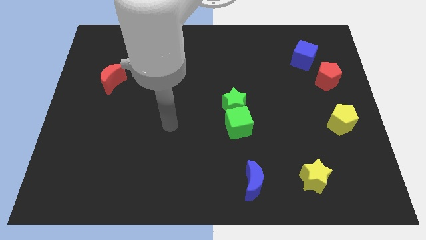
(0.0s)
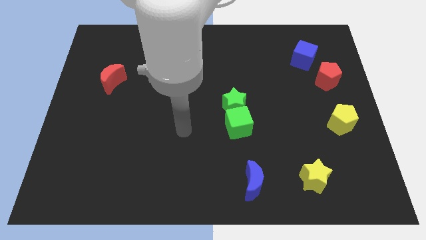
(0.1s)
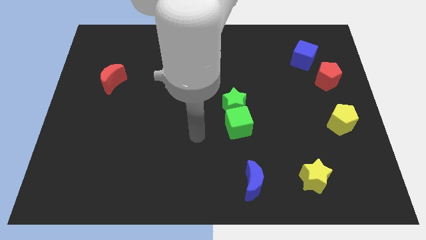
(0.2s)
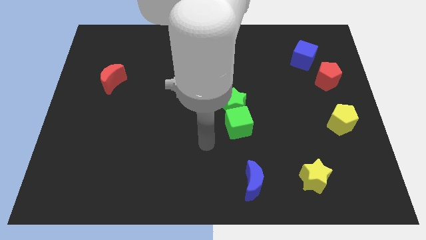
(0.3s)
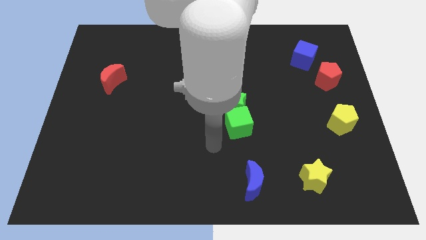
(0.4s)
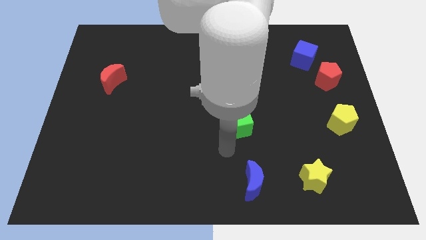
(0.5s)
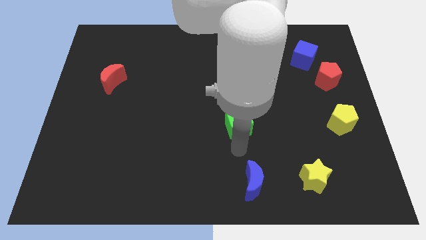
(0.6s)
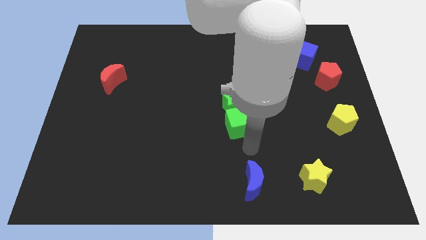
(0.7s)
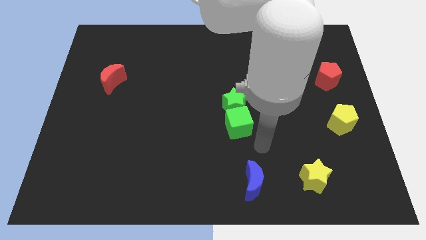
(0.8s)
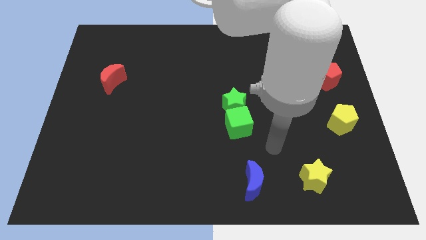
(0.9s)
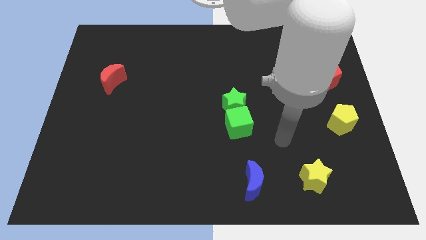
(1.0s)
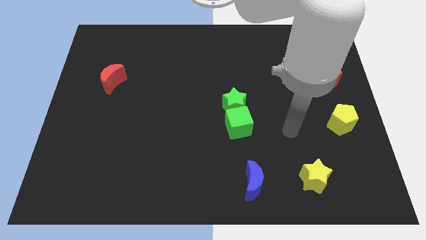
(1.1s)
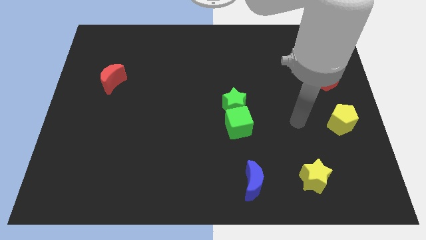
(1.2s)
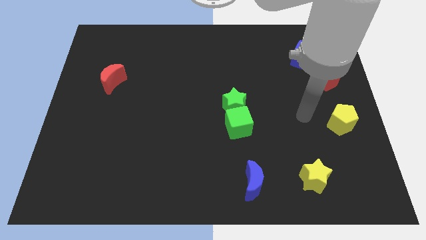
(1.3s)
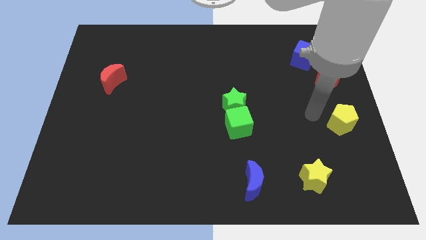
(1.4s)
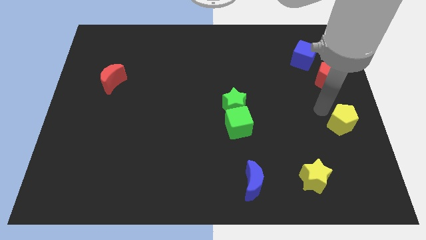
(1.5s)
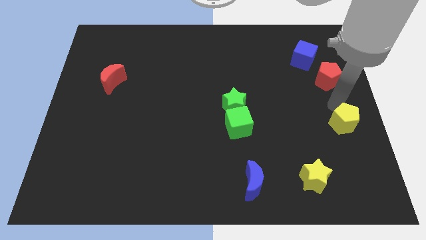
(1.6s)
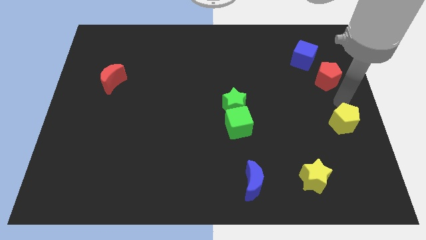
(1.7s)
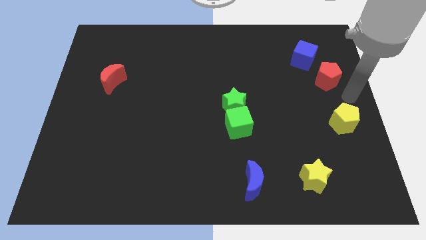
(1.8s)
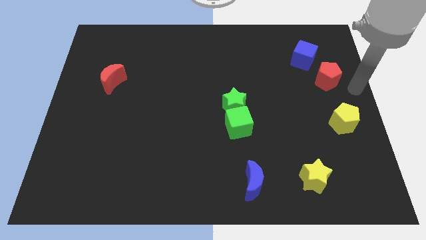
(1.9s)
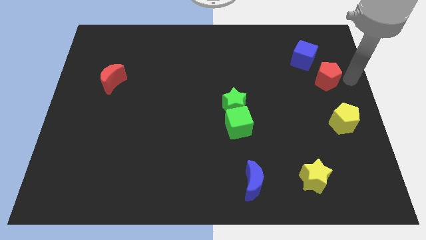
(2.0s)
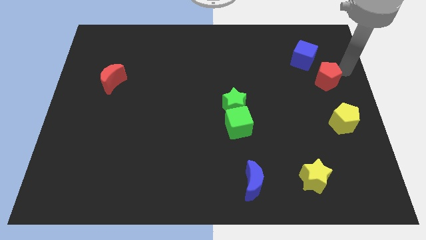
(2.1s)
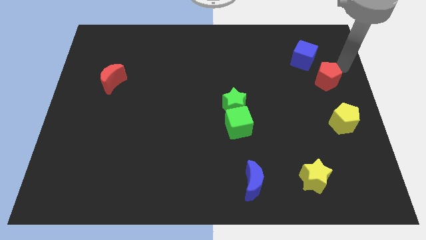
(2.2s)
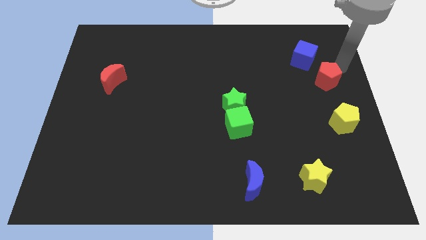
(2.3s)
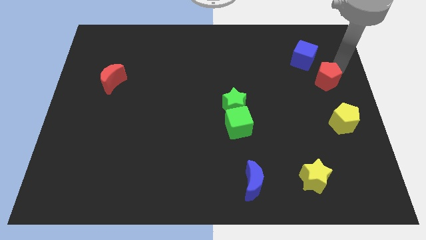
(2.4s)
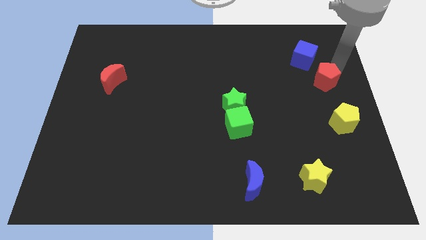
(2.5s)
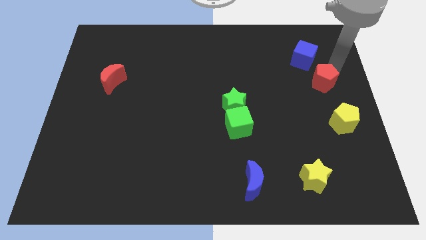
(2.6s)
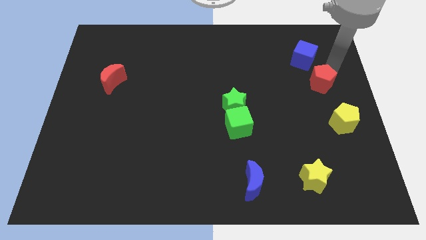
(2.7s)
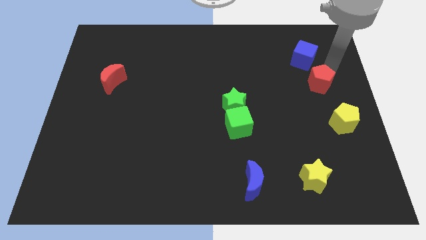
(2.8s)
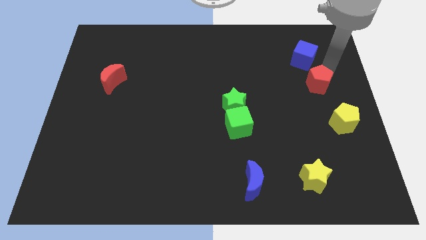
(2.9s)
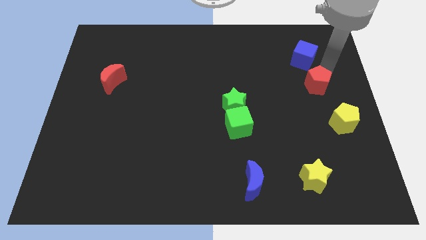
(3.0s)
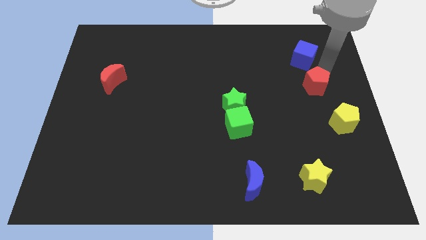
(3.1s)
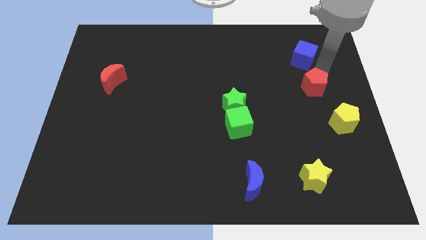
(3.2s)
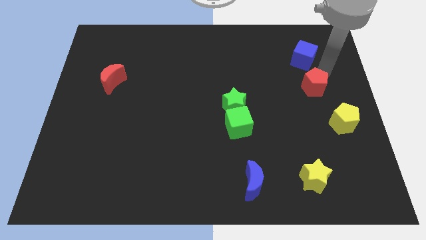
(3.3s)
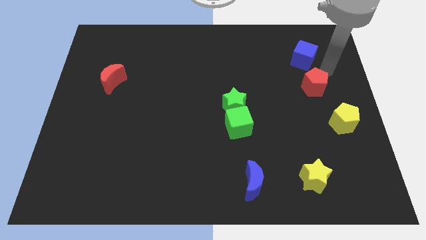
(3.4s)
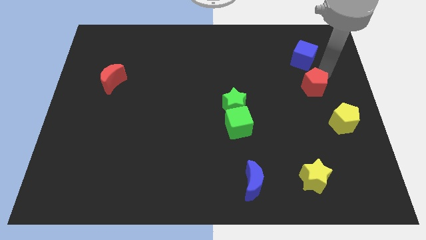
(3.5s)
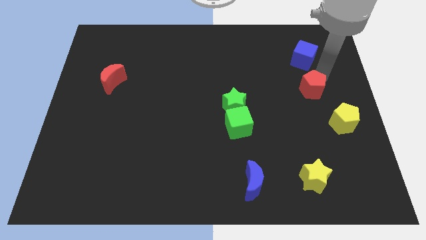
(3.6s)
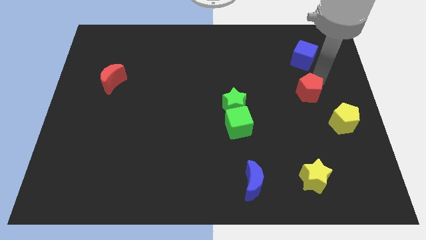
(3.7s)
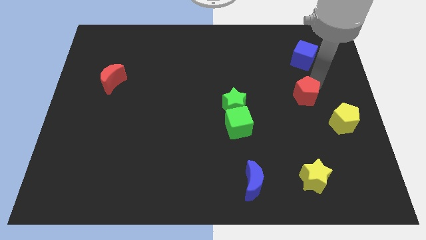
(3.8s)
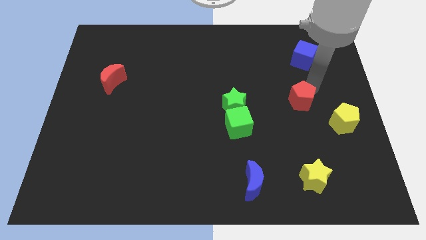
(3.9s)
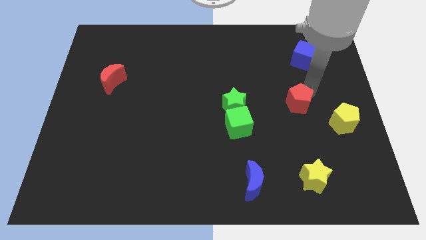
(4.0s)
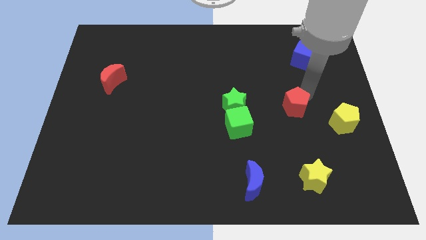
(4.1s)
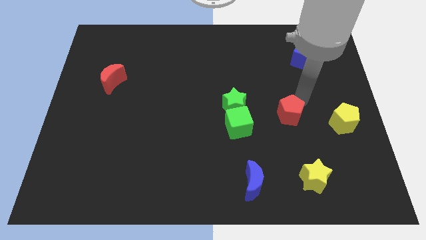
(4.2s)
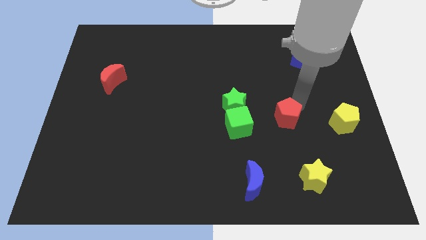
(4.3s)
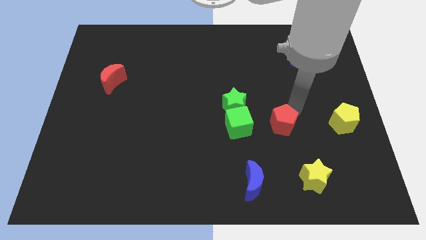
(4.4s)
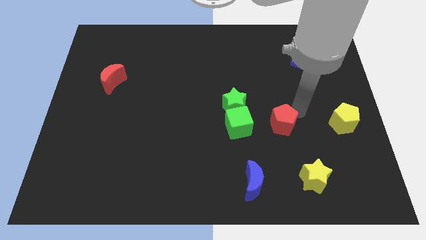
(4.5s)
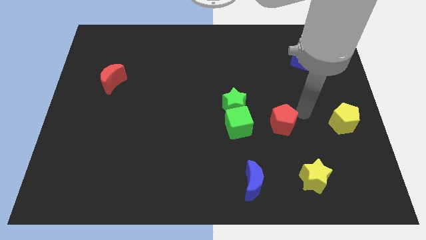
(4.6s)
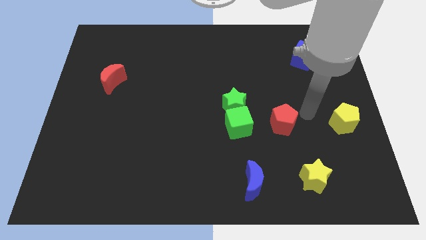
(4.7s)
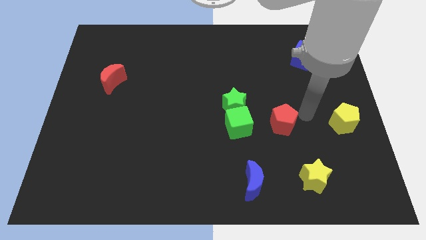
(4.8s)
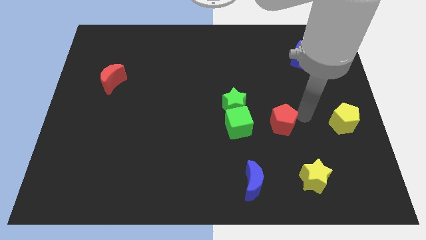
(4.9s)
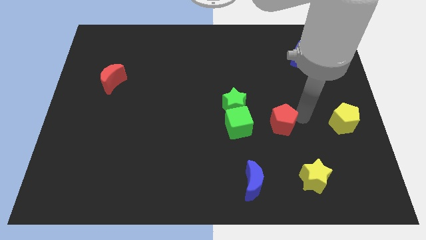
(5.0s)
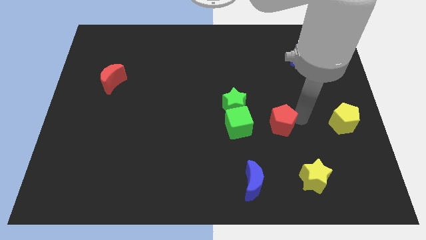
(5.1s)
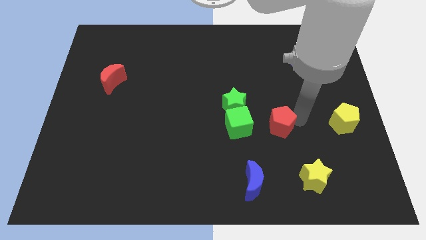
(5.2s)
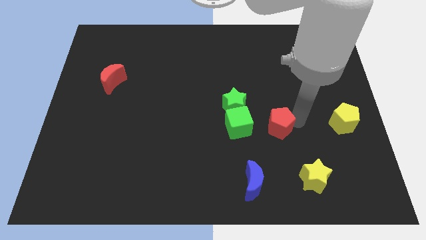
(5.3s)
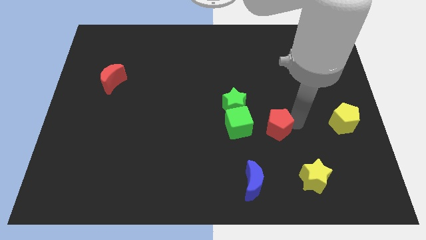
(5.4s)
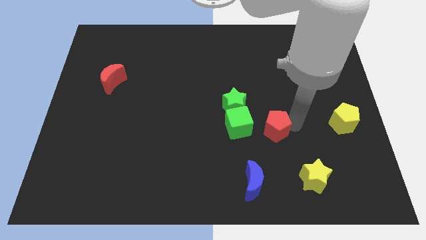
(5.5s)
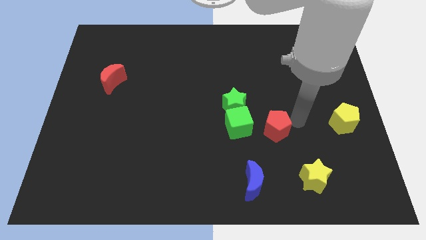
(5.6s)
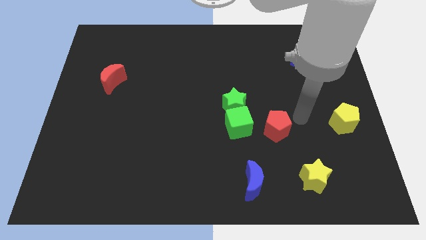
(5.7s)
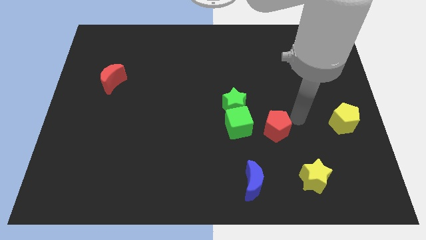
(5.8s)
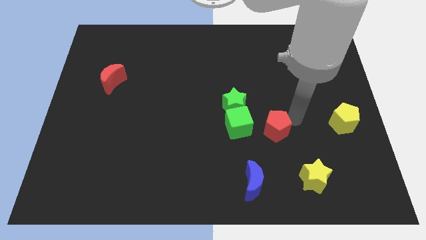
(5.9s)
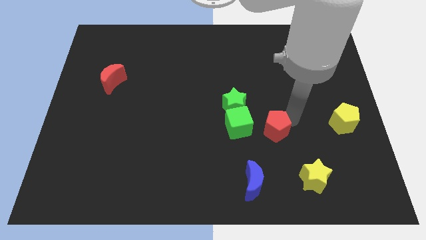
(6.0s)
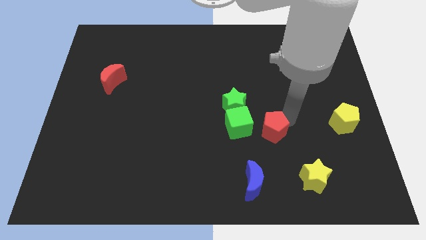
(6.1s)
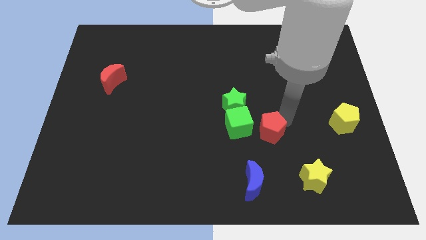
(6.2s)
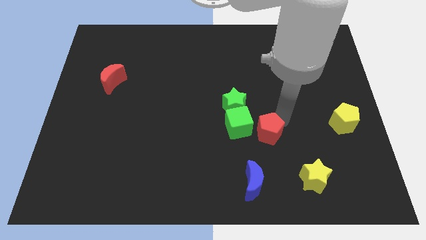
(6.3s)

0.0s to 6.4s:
push the red pentagon above the blue moon
